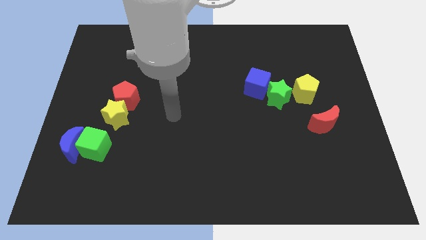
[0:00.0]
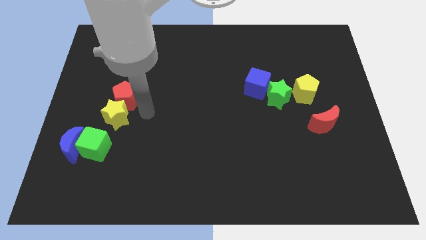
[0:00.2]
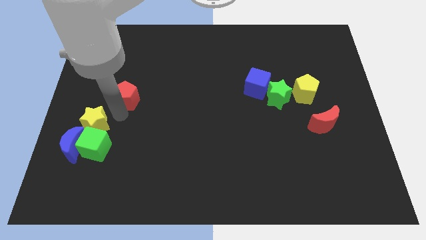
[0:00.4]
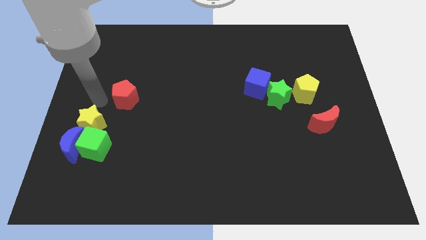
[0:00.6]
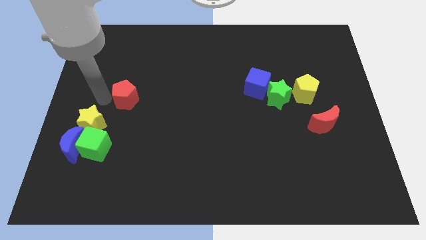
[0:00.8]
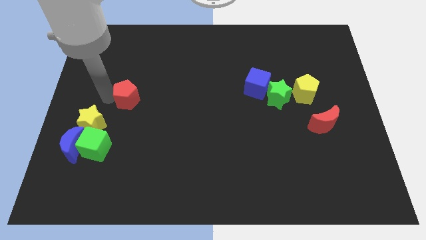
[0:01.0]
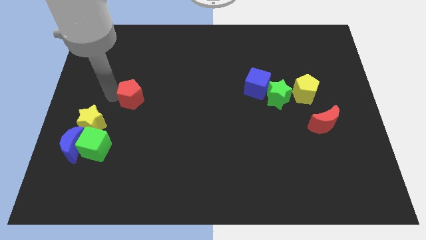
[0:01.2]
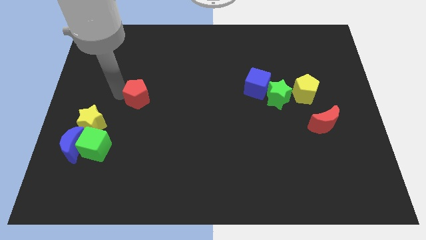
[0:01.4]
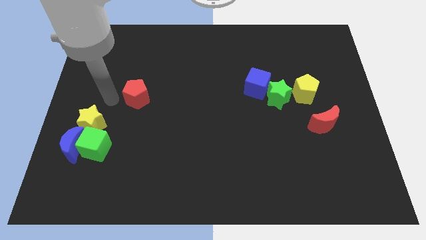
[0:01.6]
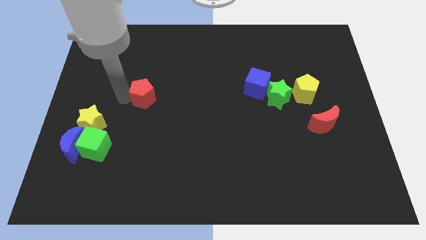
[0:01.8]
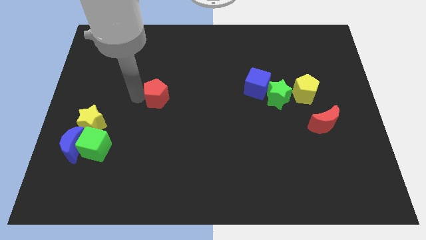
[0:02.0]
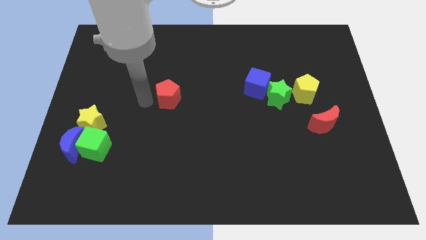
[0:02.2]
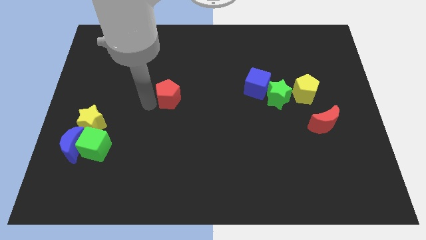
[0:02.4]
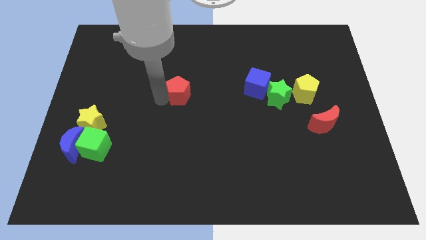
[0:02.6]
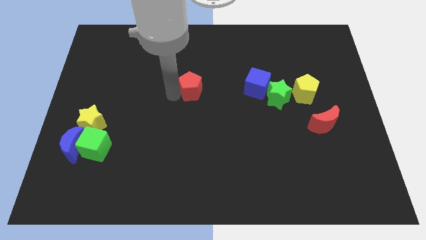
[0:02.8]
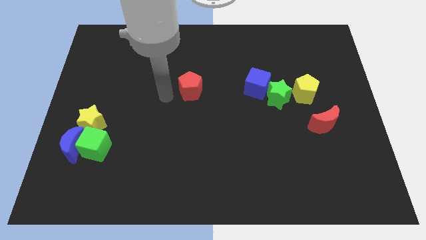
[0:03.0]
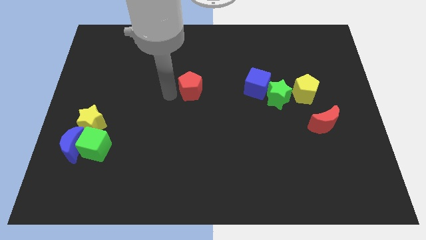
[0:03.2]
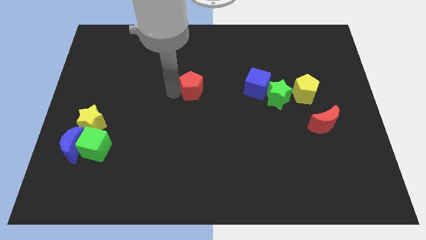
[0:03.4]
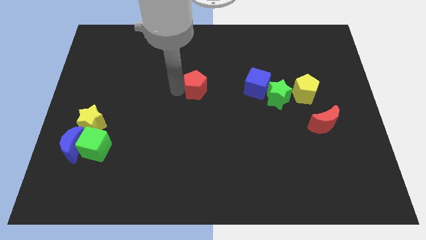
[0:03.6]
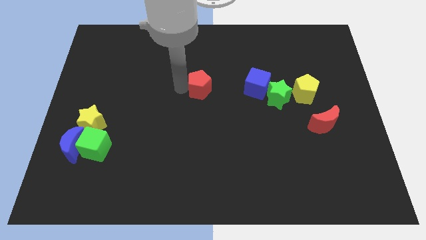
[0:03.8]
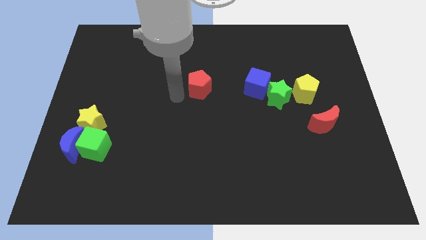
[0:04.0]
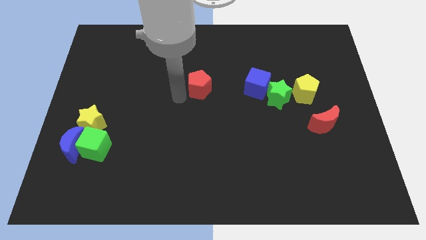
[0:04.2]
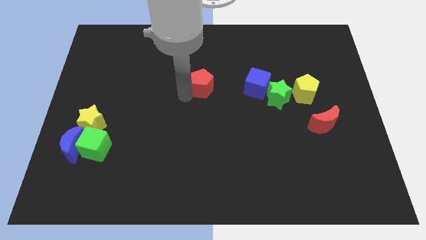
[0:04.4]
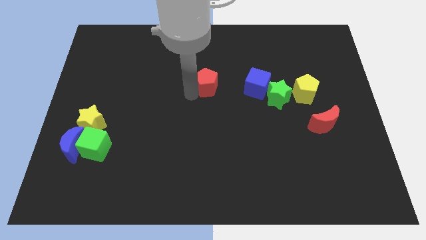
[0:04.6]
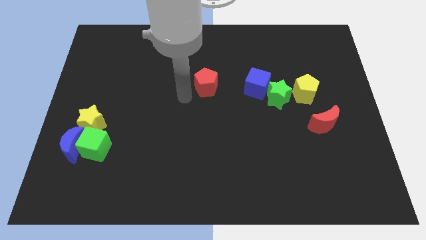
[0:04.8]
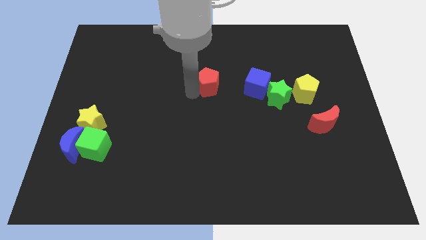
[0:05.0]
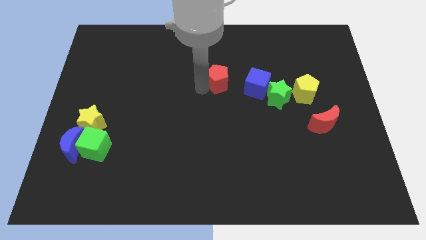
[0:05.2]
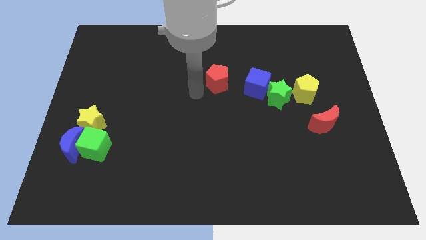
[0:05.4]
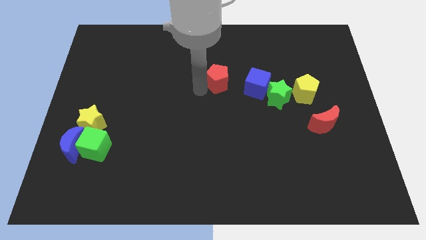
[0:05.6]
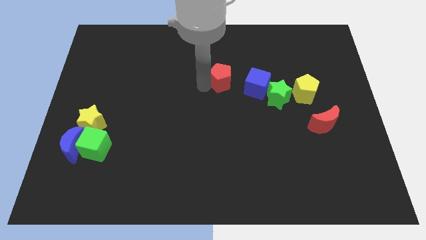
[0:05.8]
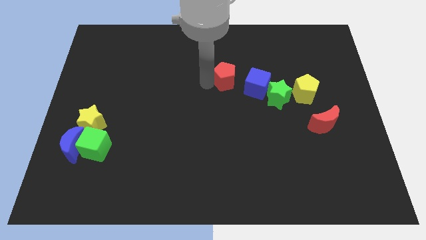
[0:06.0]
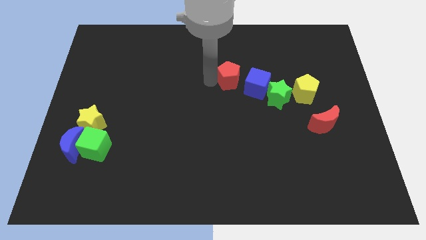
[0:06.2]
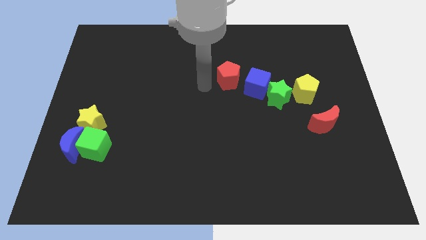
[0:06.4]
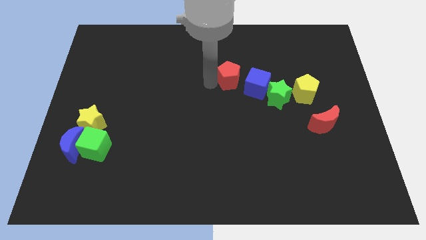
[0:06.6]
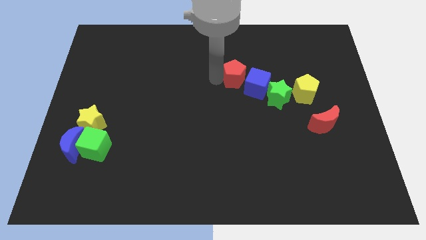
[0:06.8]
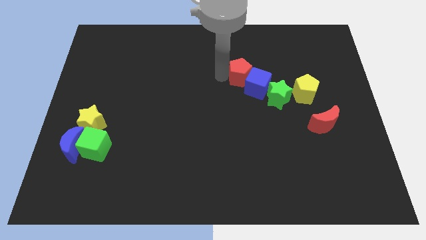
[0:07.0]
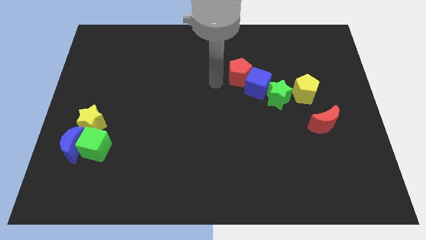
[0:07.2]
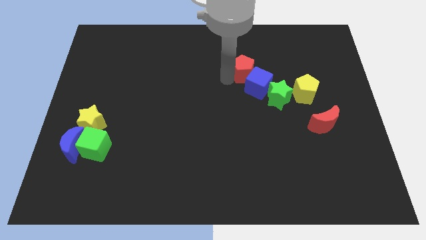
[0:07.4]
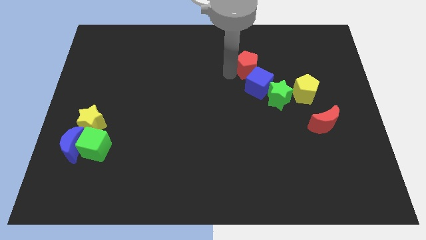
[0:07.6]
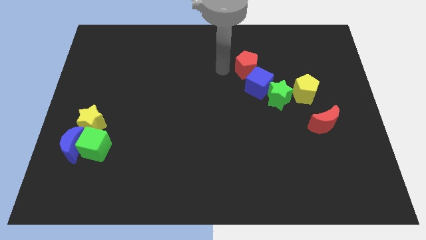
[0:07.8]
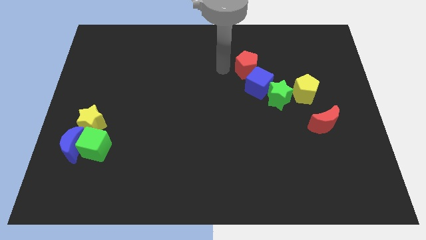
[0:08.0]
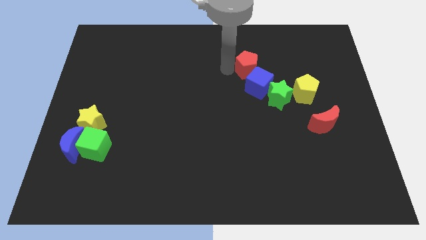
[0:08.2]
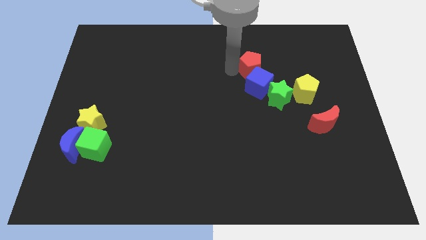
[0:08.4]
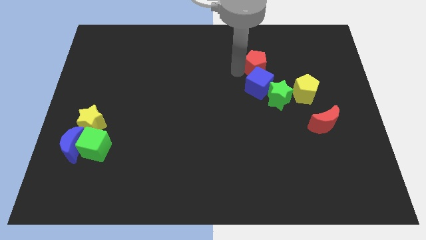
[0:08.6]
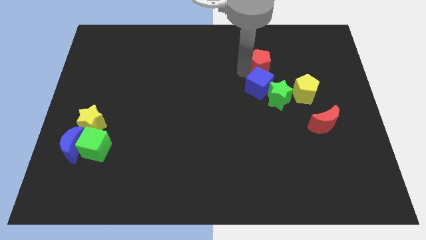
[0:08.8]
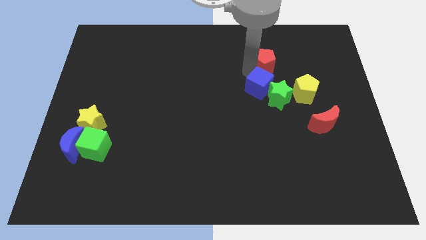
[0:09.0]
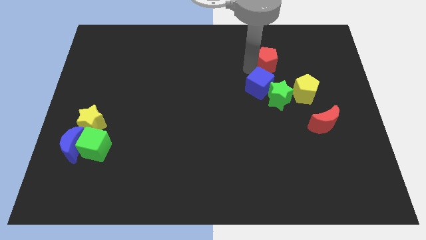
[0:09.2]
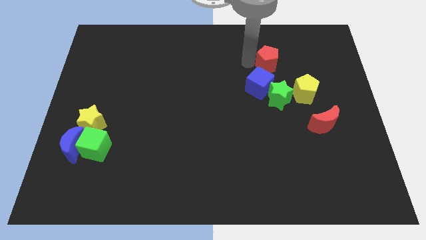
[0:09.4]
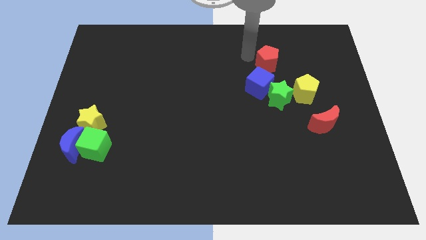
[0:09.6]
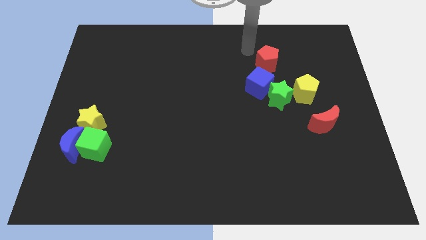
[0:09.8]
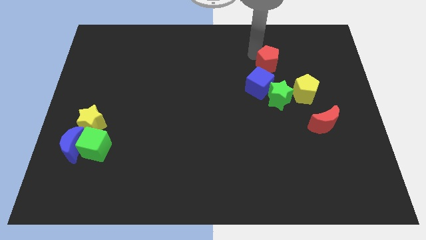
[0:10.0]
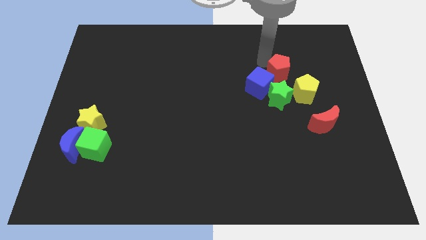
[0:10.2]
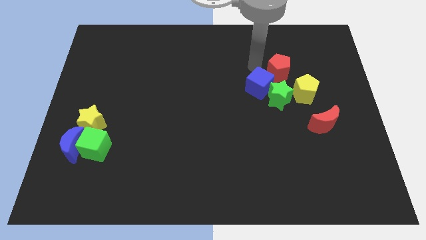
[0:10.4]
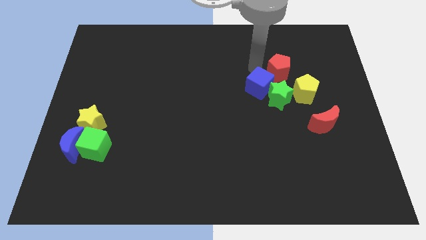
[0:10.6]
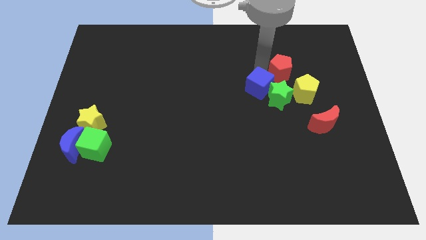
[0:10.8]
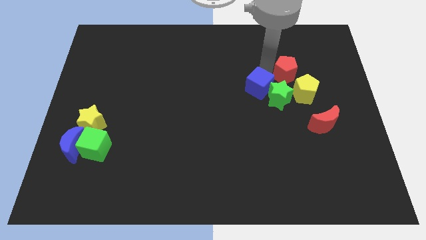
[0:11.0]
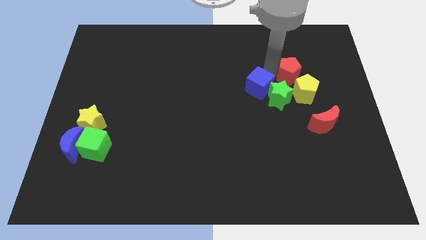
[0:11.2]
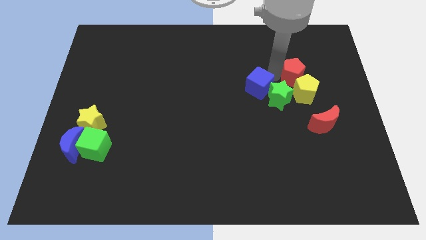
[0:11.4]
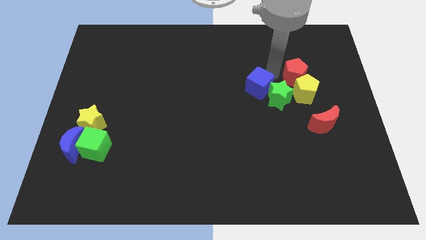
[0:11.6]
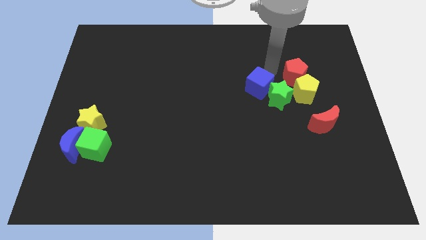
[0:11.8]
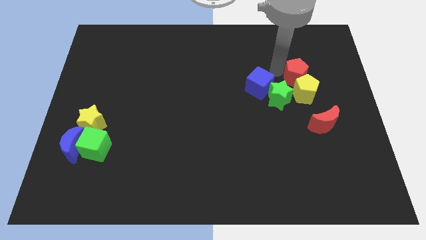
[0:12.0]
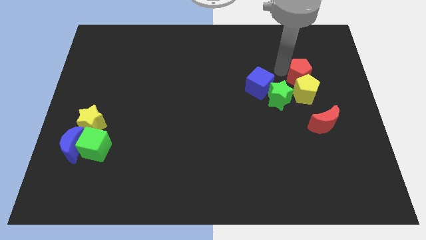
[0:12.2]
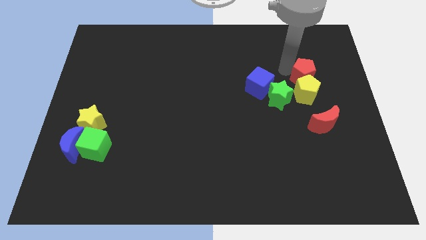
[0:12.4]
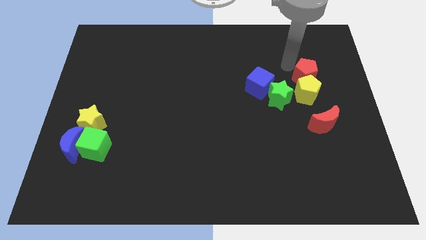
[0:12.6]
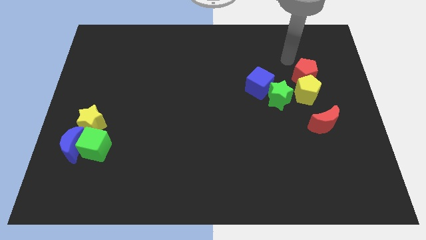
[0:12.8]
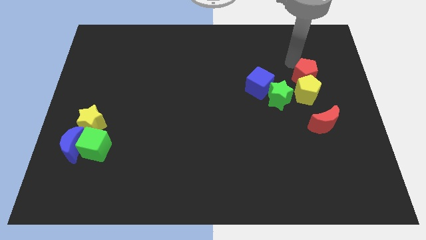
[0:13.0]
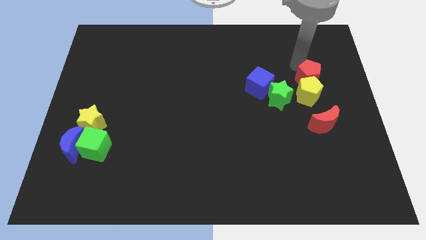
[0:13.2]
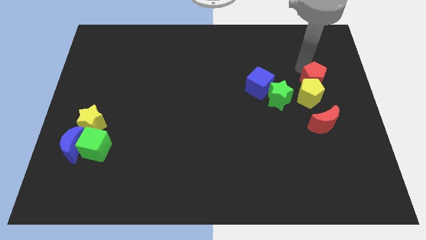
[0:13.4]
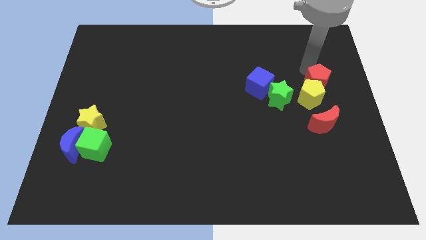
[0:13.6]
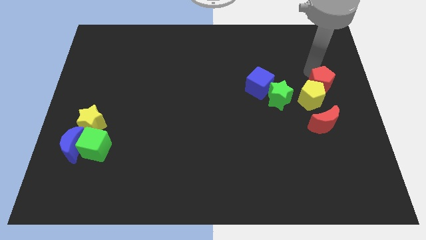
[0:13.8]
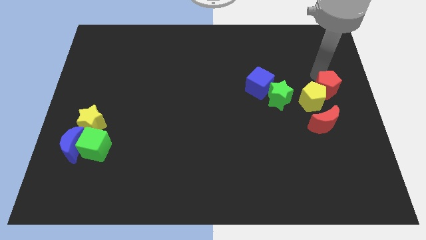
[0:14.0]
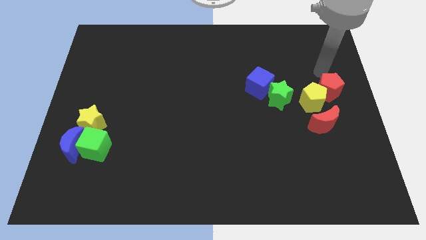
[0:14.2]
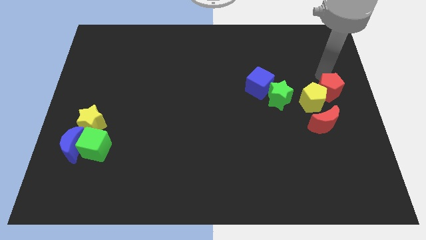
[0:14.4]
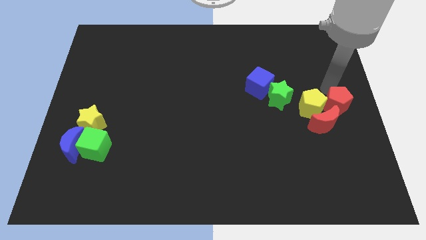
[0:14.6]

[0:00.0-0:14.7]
push the red pentagon diagonally down and to the right of the yellow pentagon
